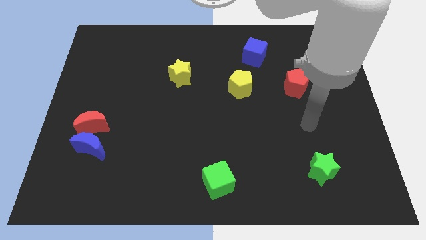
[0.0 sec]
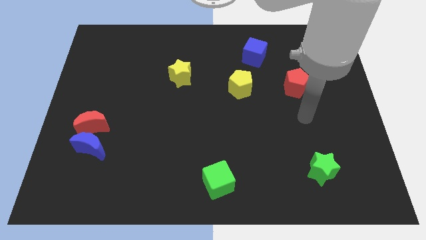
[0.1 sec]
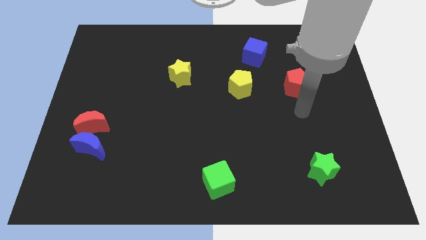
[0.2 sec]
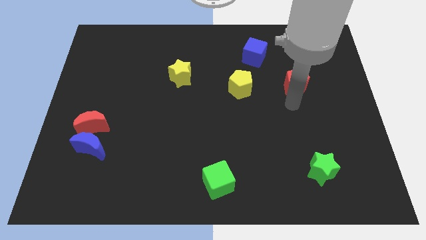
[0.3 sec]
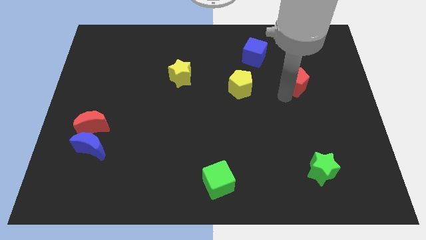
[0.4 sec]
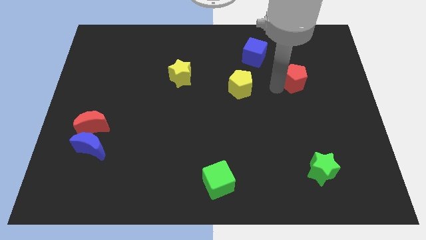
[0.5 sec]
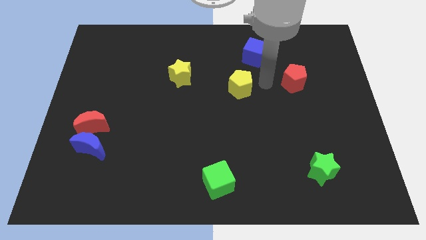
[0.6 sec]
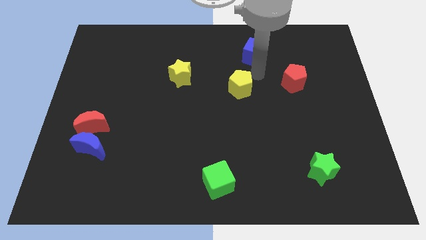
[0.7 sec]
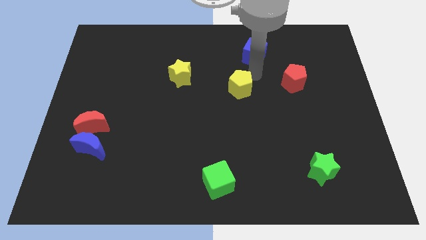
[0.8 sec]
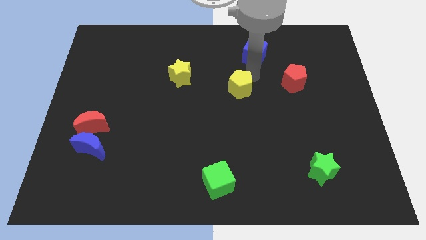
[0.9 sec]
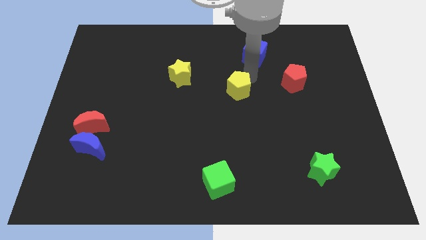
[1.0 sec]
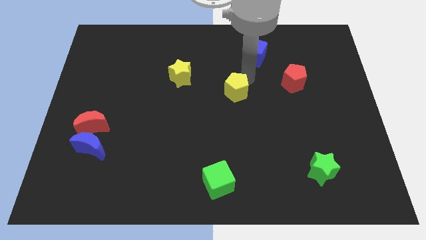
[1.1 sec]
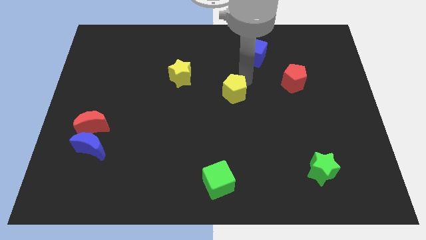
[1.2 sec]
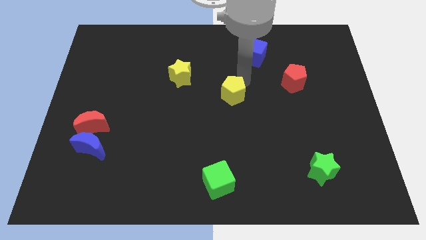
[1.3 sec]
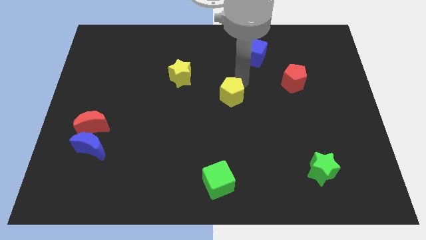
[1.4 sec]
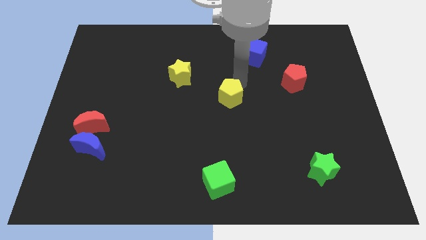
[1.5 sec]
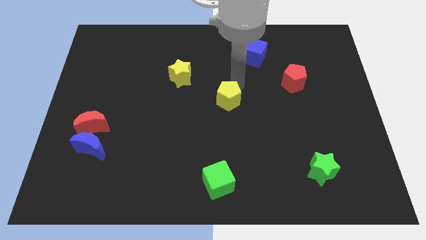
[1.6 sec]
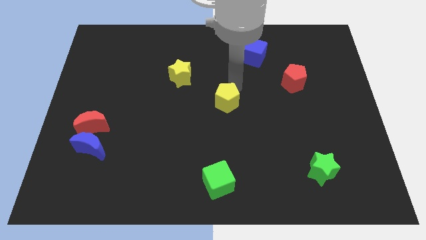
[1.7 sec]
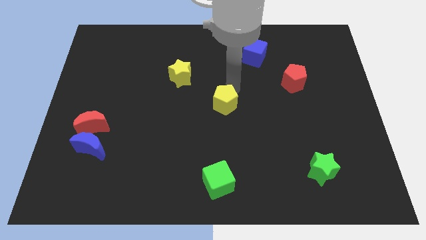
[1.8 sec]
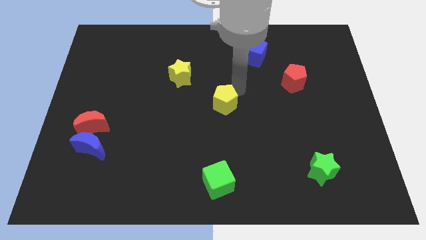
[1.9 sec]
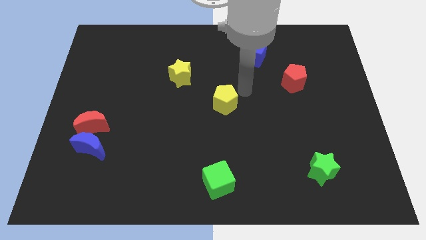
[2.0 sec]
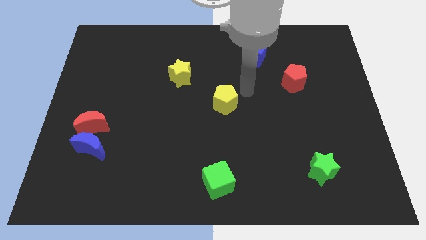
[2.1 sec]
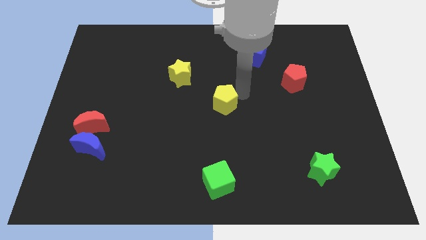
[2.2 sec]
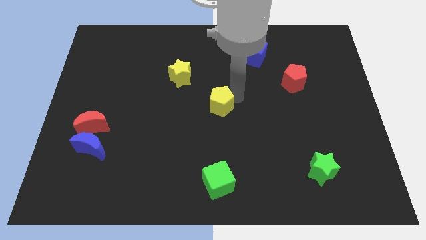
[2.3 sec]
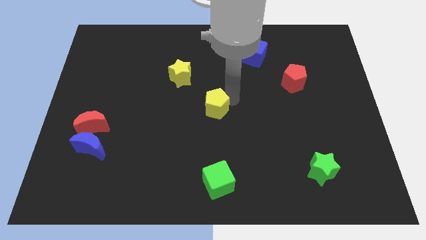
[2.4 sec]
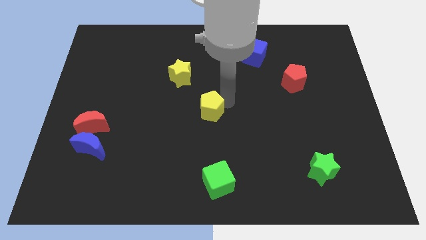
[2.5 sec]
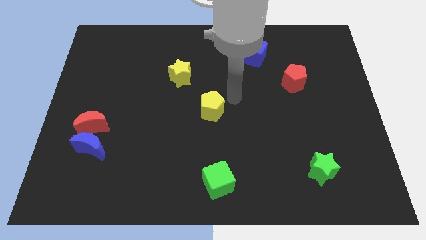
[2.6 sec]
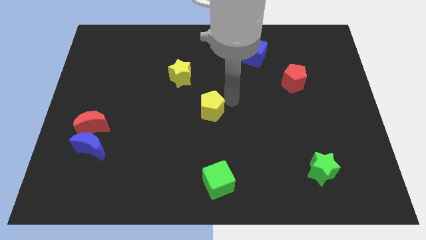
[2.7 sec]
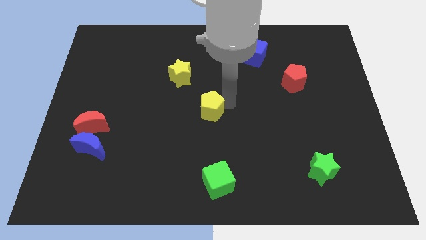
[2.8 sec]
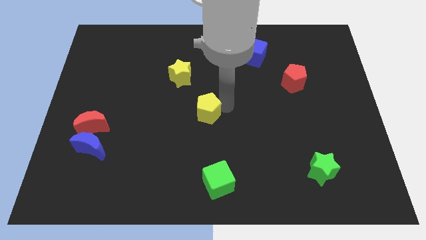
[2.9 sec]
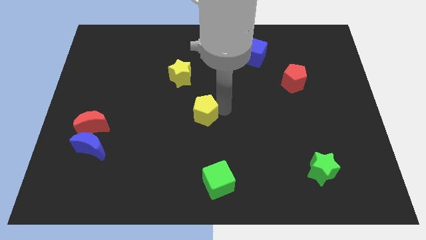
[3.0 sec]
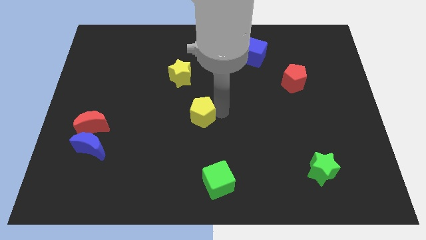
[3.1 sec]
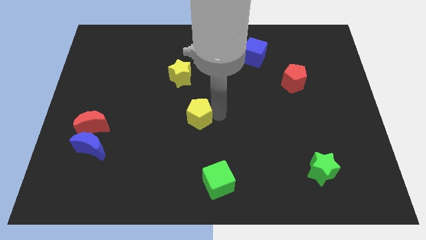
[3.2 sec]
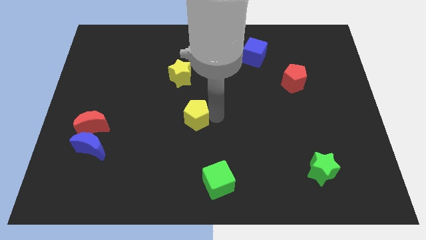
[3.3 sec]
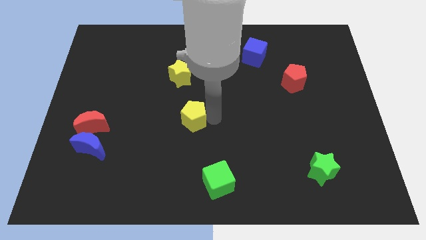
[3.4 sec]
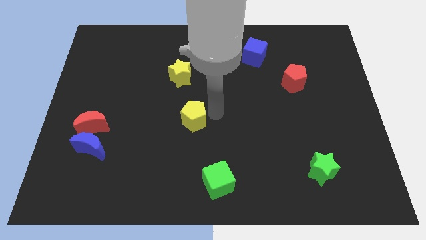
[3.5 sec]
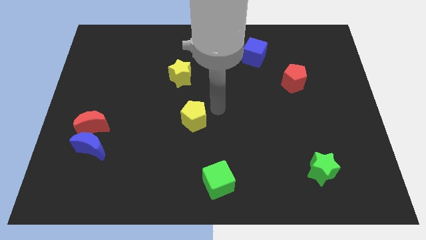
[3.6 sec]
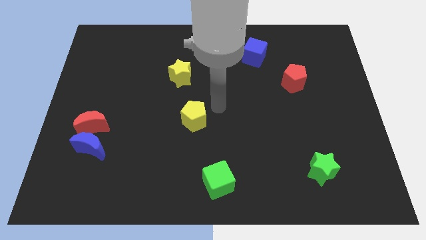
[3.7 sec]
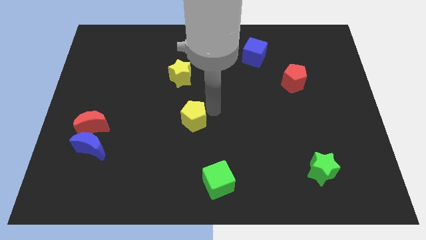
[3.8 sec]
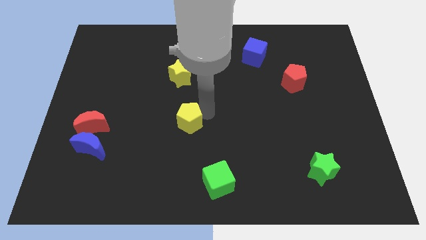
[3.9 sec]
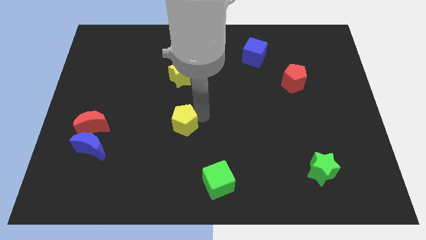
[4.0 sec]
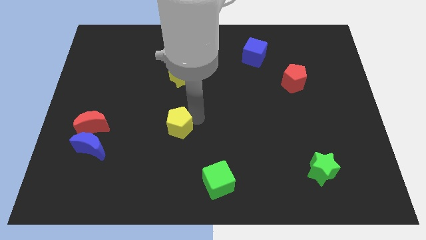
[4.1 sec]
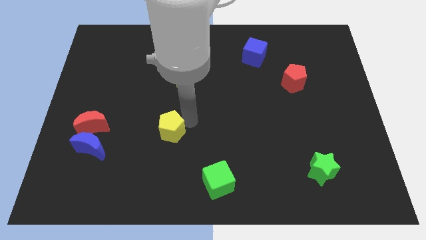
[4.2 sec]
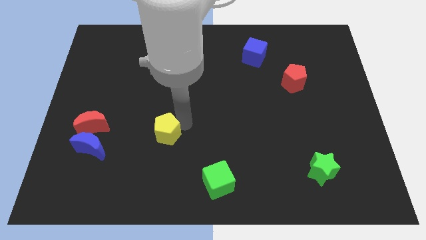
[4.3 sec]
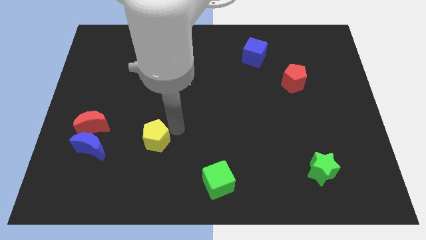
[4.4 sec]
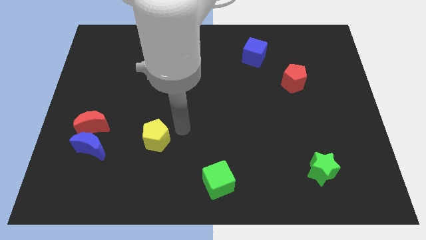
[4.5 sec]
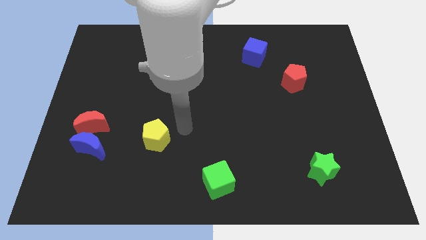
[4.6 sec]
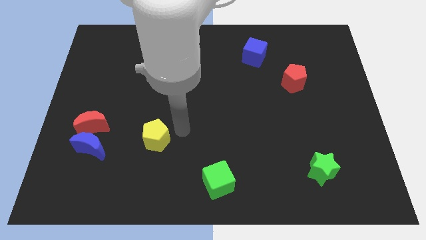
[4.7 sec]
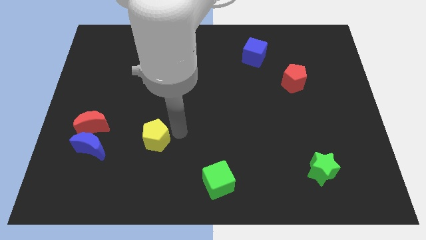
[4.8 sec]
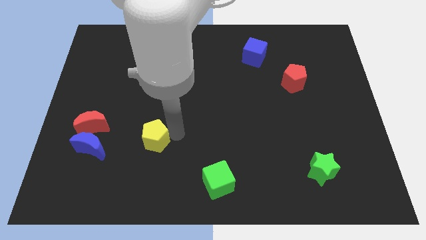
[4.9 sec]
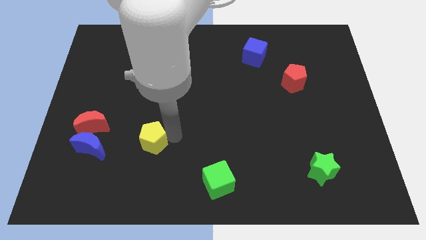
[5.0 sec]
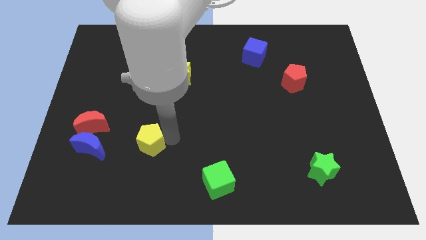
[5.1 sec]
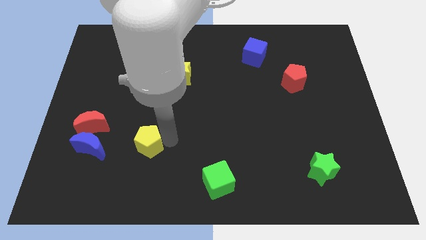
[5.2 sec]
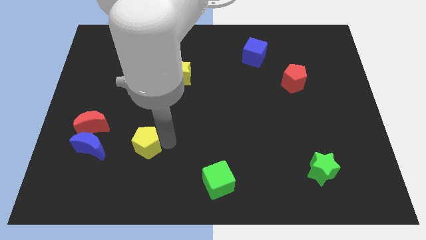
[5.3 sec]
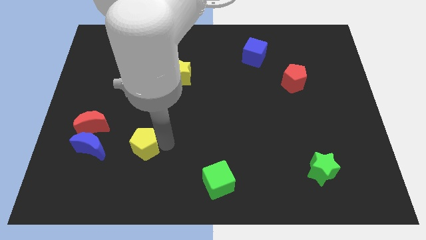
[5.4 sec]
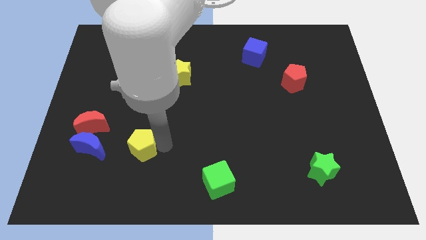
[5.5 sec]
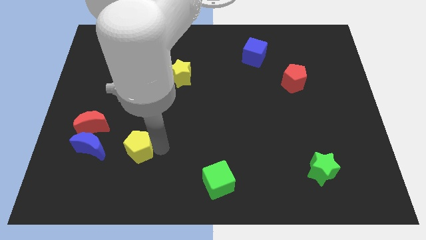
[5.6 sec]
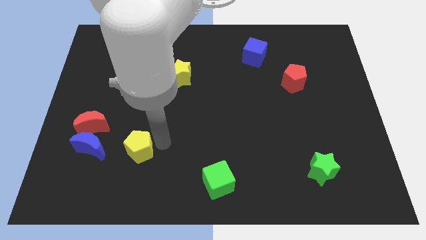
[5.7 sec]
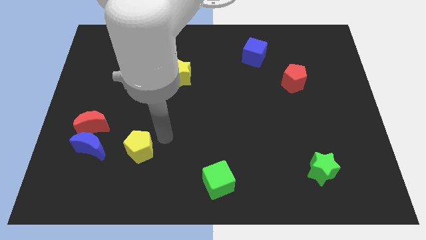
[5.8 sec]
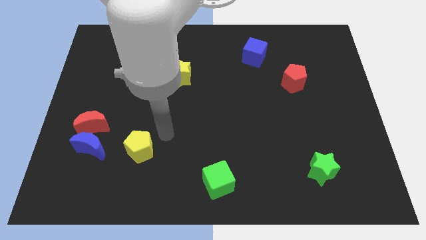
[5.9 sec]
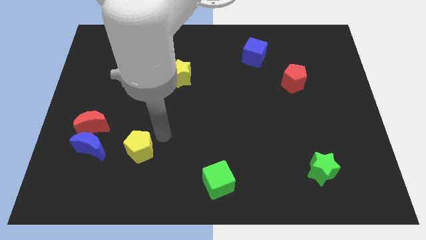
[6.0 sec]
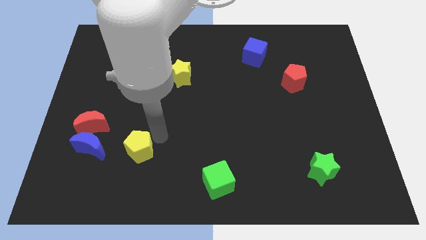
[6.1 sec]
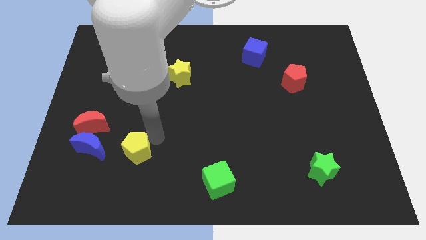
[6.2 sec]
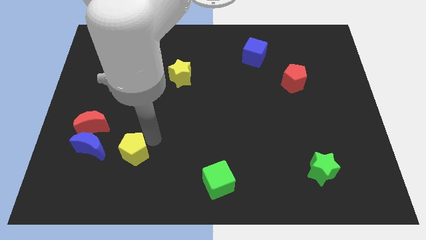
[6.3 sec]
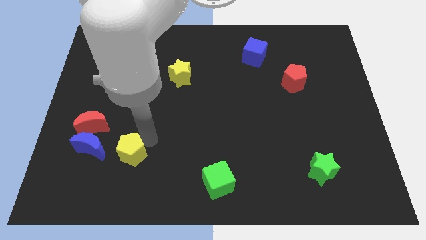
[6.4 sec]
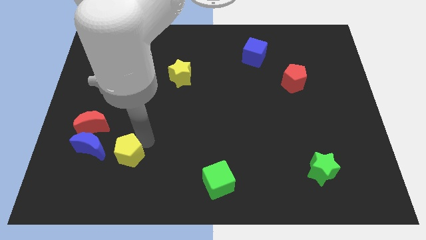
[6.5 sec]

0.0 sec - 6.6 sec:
slide the yellow pentagon to the bottom right side of the blue moon
